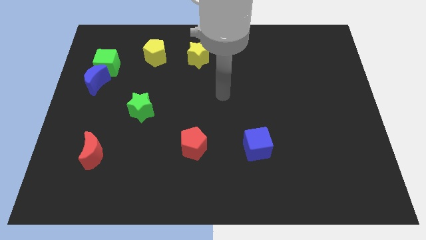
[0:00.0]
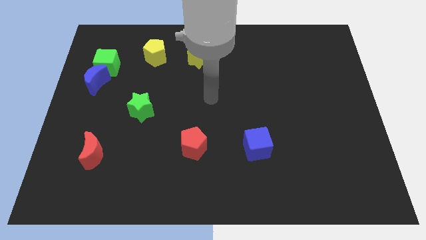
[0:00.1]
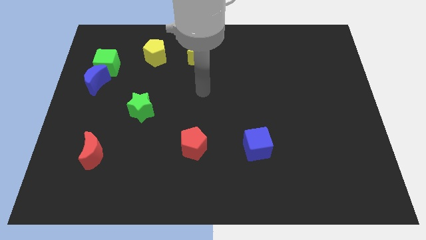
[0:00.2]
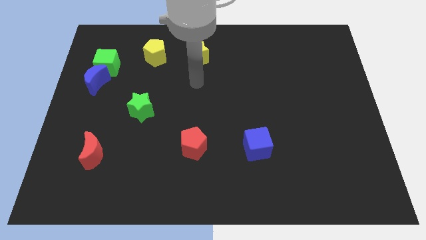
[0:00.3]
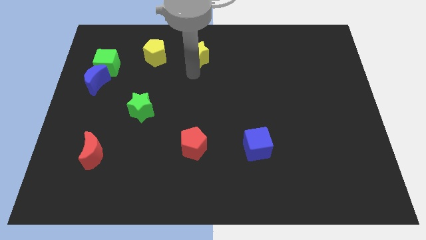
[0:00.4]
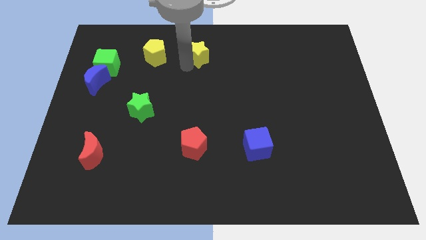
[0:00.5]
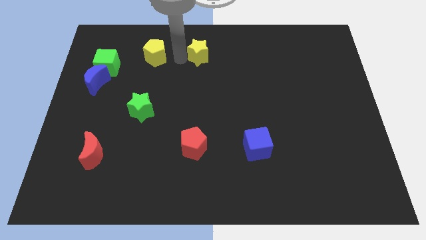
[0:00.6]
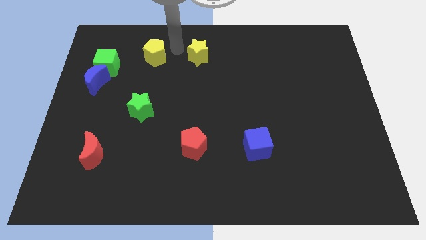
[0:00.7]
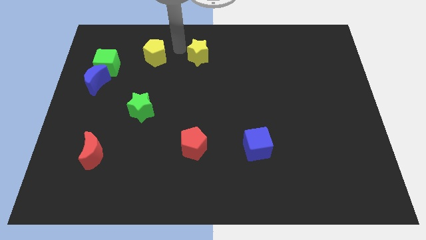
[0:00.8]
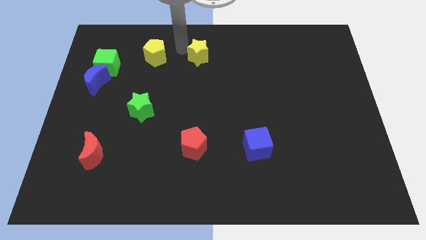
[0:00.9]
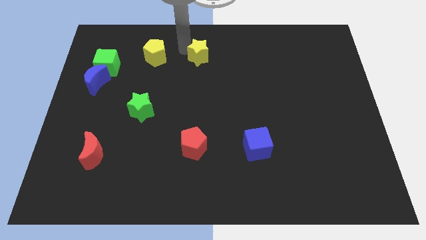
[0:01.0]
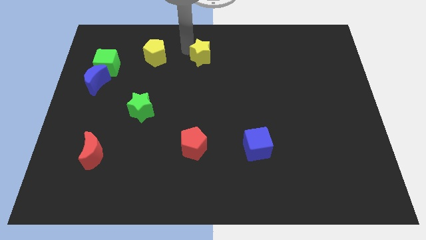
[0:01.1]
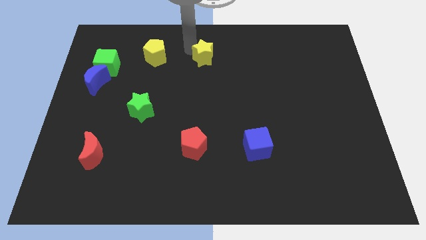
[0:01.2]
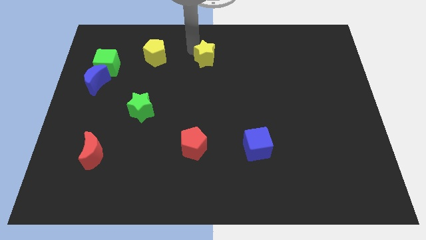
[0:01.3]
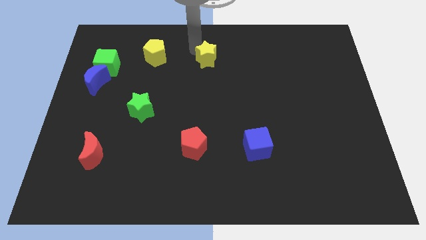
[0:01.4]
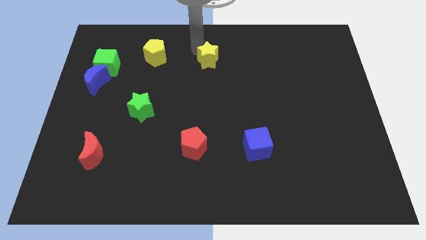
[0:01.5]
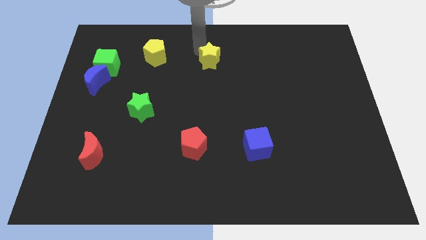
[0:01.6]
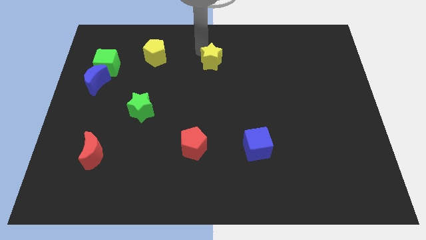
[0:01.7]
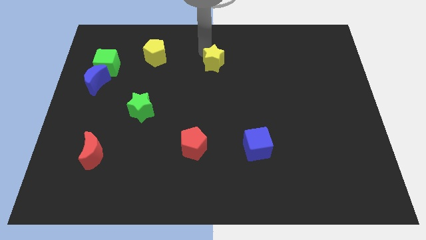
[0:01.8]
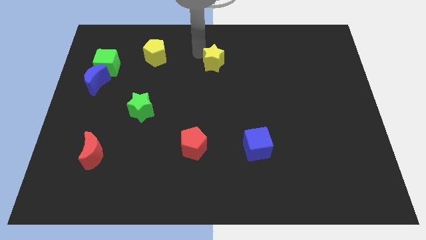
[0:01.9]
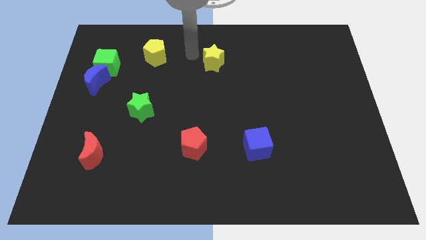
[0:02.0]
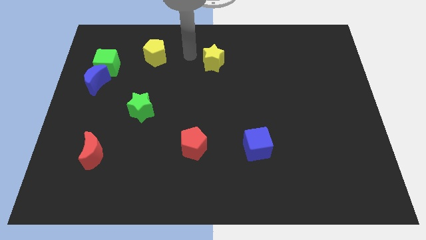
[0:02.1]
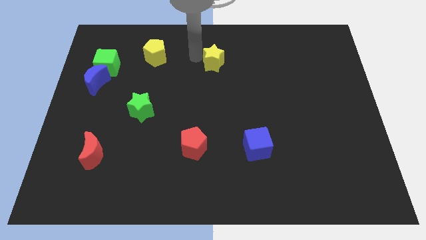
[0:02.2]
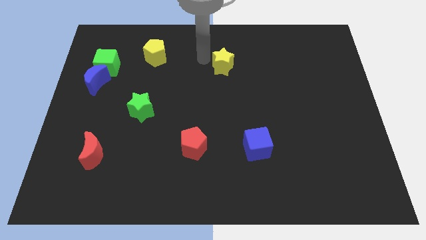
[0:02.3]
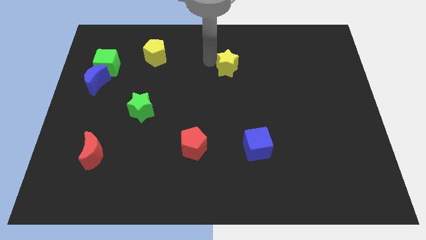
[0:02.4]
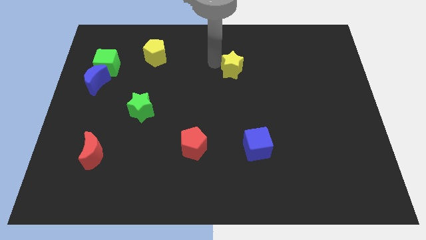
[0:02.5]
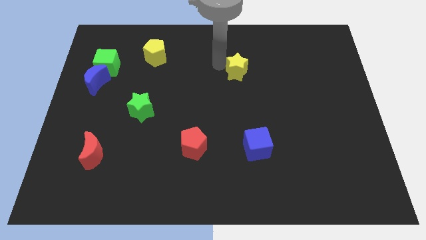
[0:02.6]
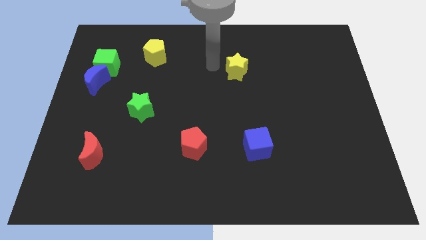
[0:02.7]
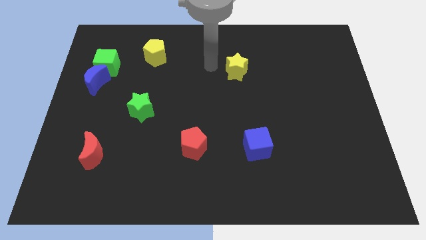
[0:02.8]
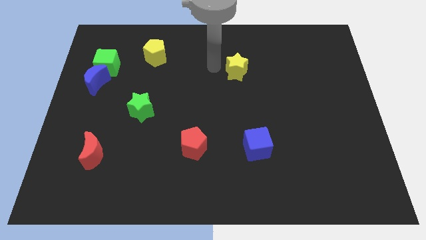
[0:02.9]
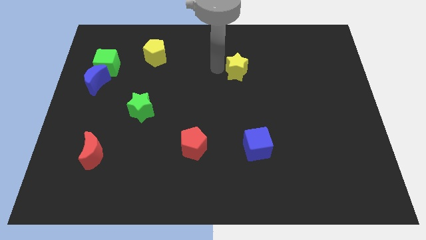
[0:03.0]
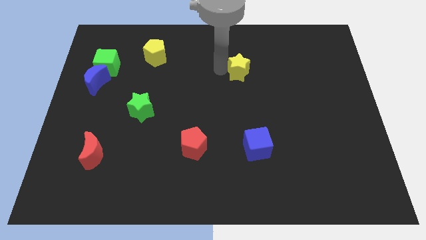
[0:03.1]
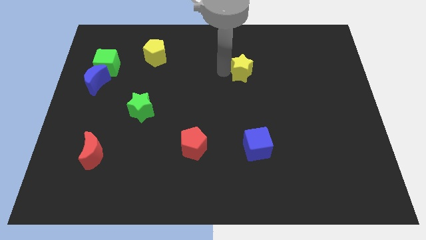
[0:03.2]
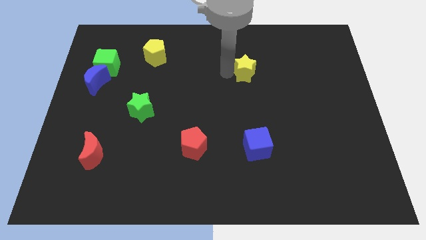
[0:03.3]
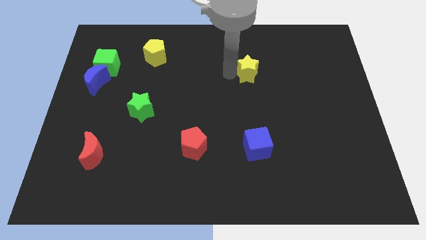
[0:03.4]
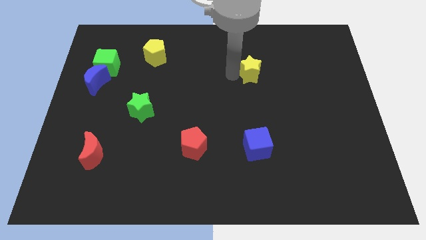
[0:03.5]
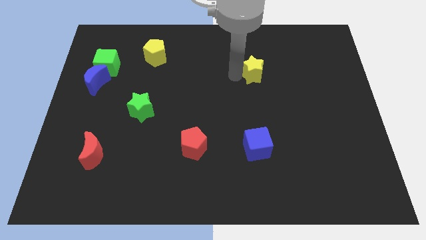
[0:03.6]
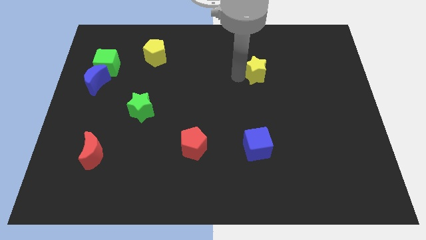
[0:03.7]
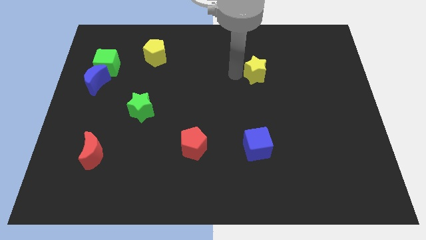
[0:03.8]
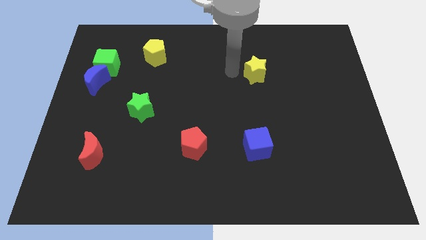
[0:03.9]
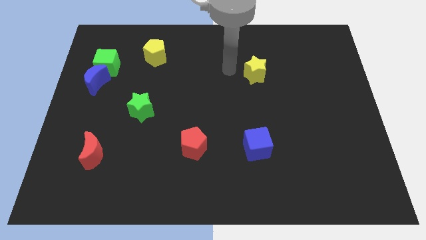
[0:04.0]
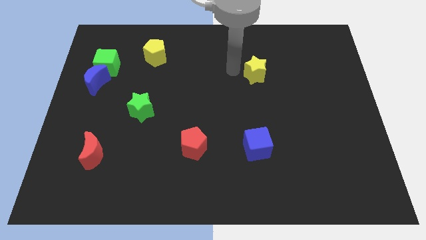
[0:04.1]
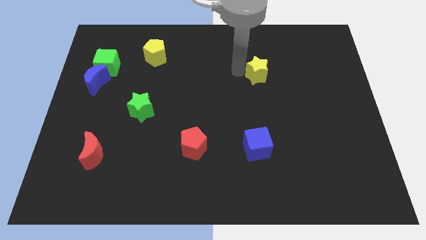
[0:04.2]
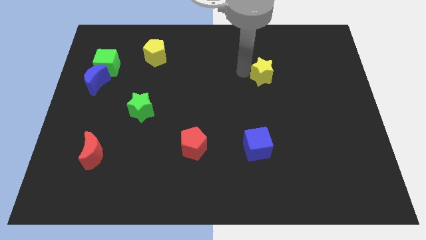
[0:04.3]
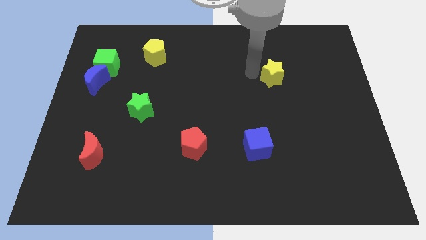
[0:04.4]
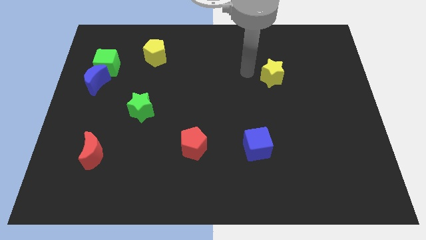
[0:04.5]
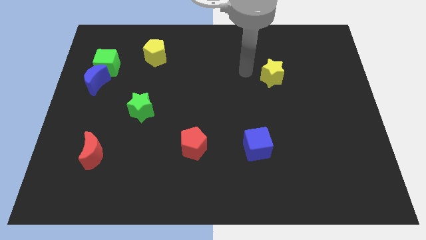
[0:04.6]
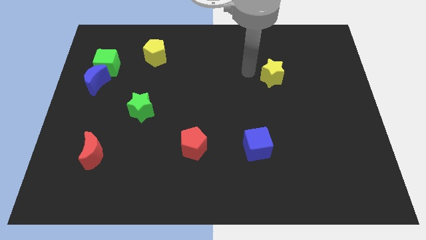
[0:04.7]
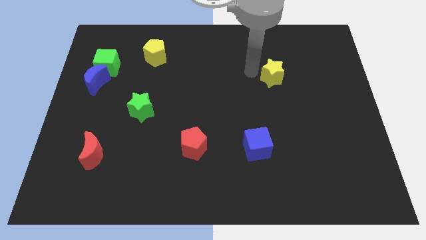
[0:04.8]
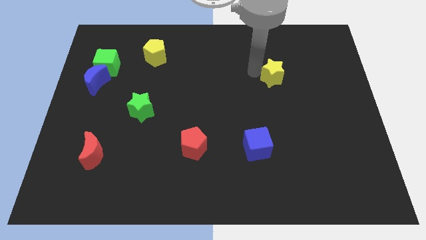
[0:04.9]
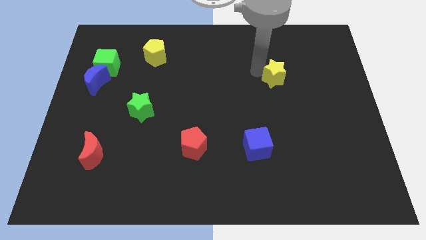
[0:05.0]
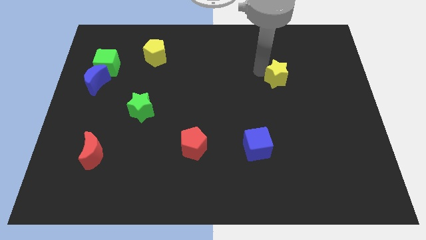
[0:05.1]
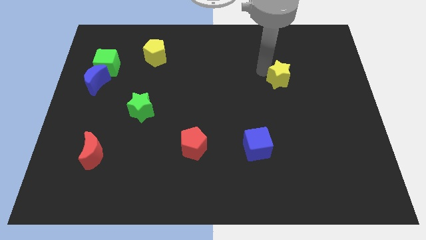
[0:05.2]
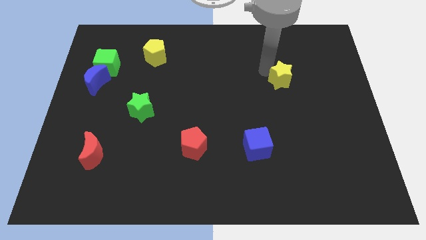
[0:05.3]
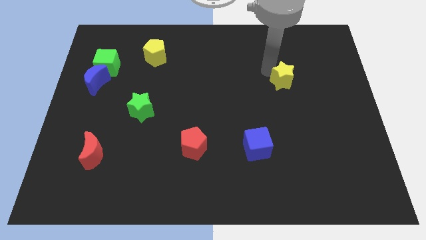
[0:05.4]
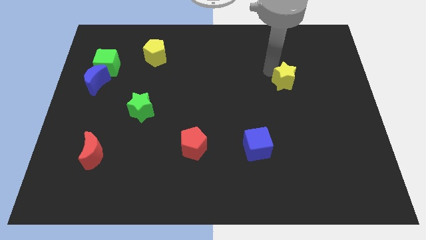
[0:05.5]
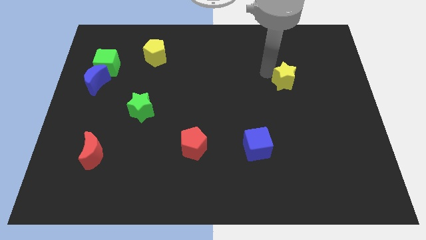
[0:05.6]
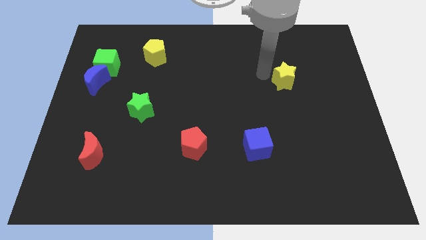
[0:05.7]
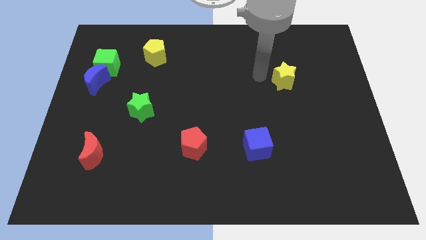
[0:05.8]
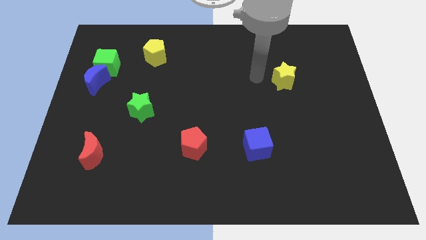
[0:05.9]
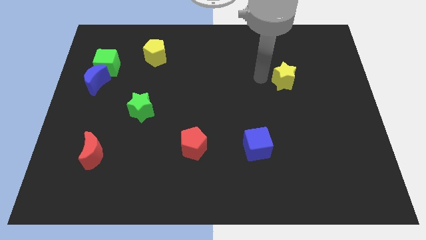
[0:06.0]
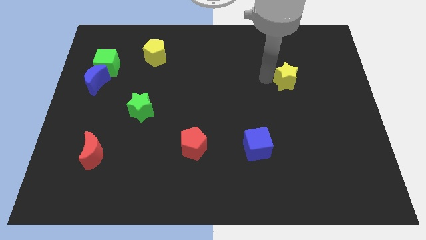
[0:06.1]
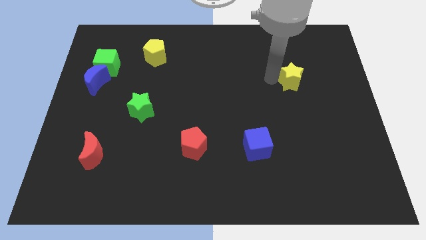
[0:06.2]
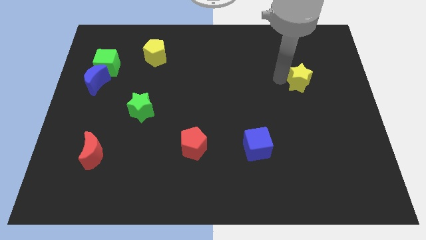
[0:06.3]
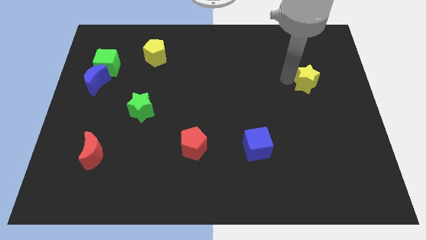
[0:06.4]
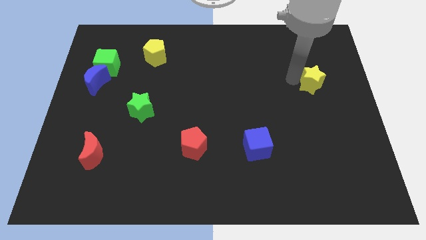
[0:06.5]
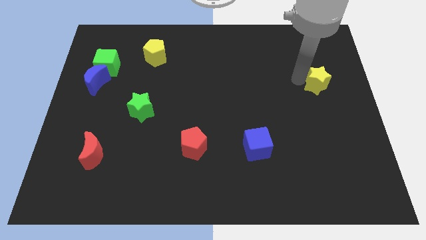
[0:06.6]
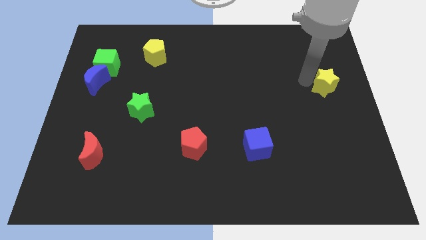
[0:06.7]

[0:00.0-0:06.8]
push the yellow star to the center right

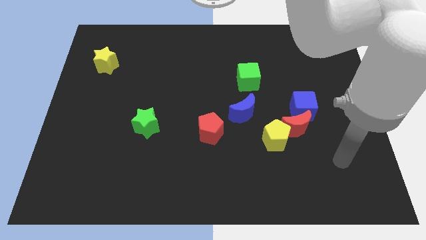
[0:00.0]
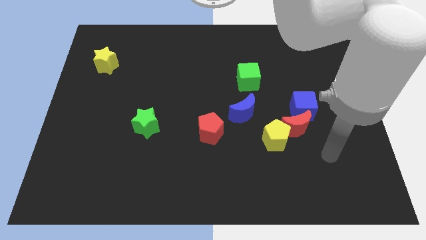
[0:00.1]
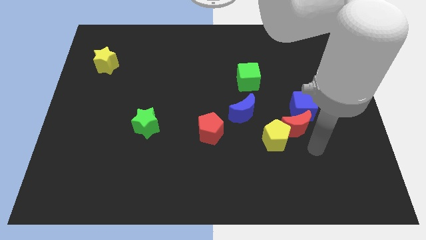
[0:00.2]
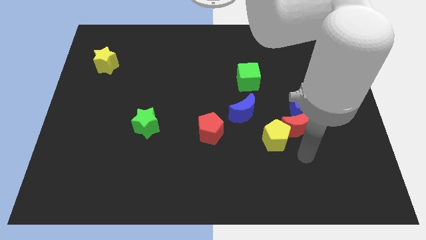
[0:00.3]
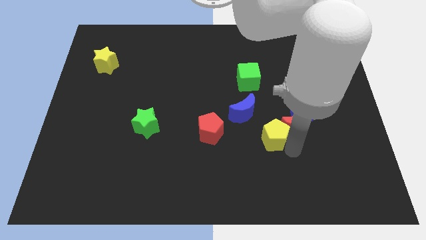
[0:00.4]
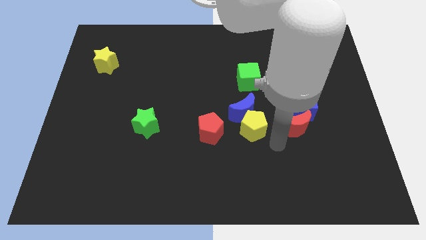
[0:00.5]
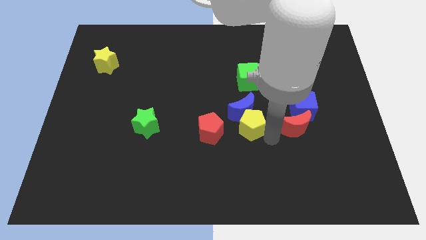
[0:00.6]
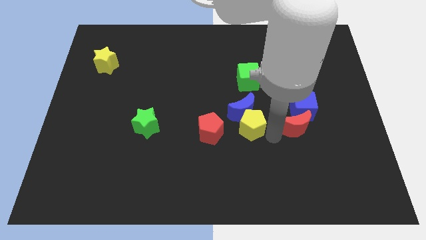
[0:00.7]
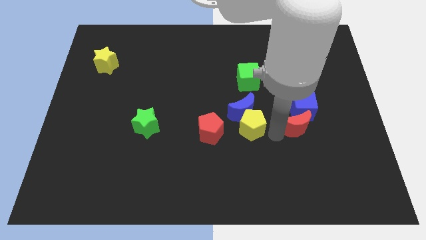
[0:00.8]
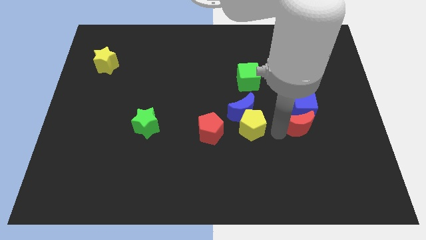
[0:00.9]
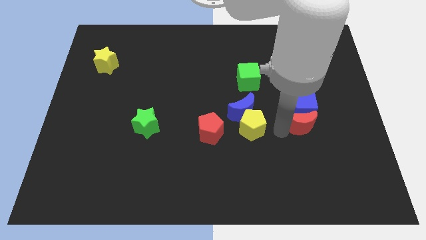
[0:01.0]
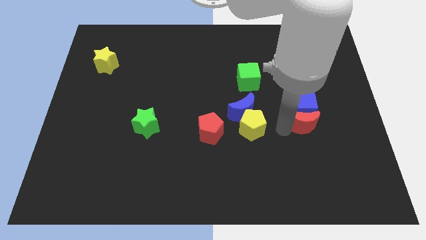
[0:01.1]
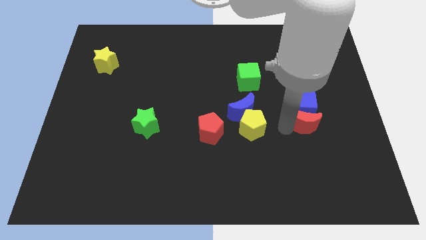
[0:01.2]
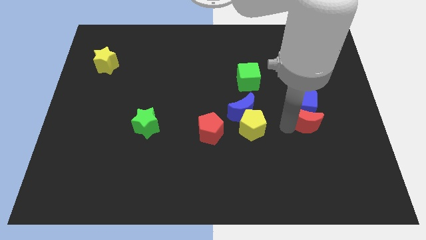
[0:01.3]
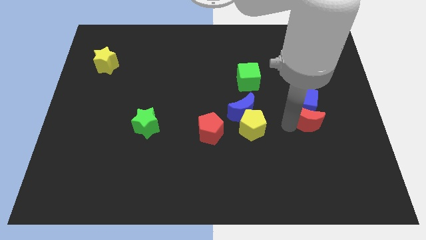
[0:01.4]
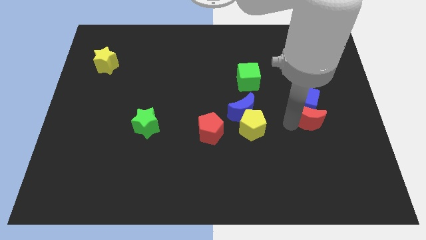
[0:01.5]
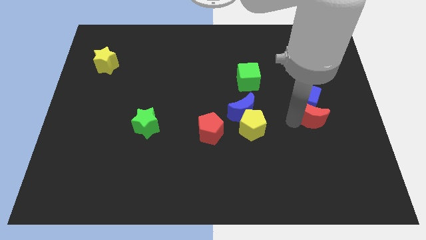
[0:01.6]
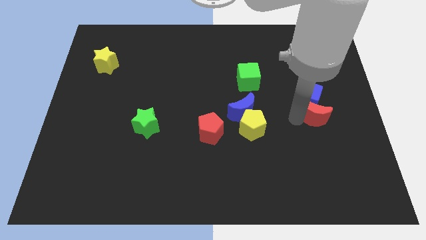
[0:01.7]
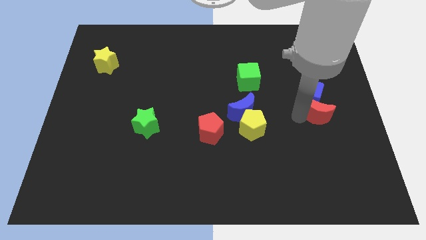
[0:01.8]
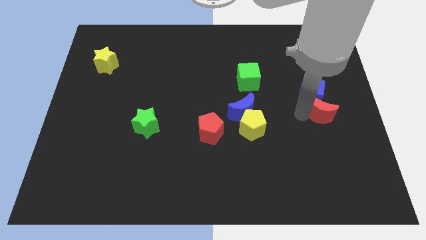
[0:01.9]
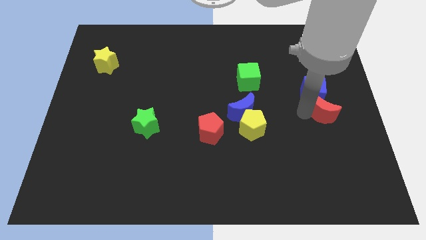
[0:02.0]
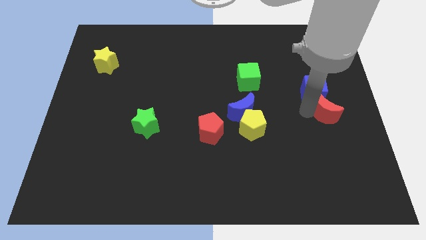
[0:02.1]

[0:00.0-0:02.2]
move the red moon to the right side
